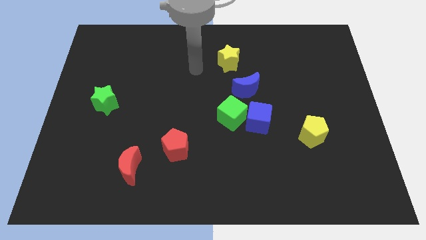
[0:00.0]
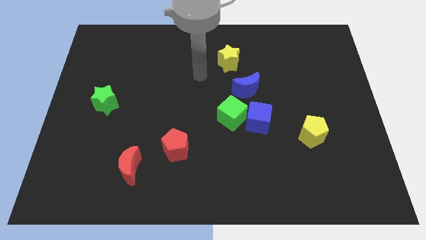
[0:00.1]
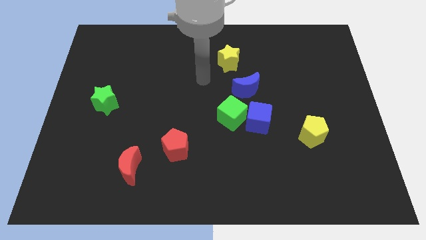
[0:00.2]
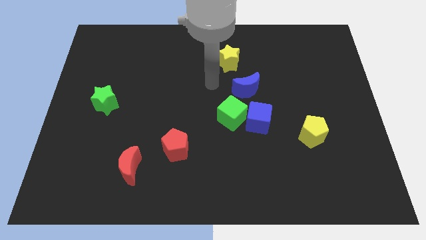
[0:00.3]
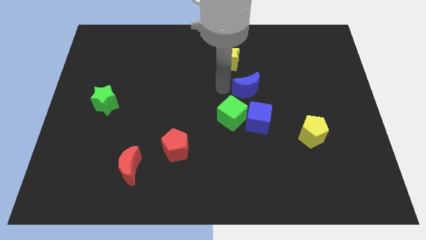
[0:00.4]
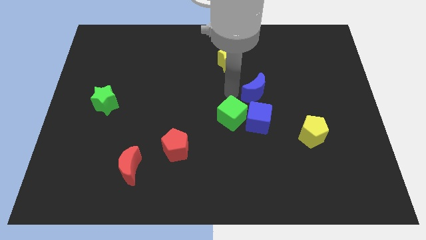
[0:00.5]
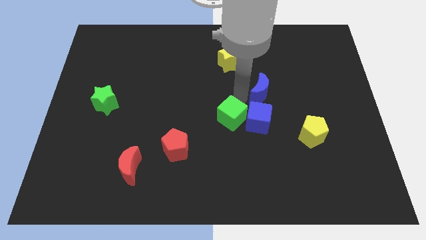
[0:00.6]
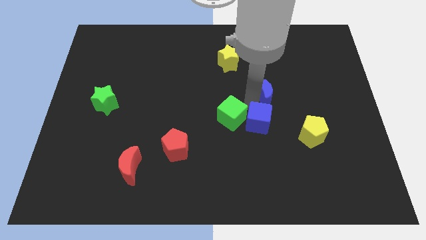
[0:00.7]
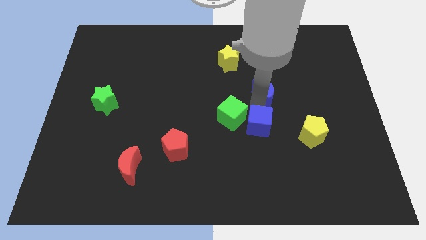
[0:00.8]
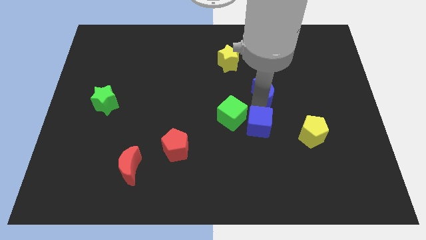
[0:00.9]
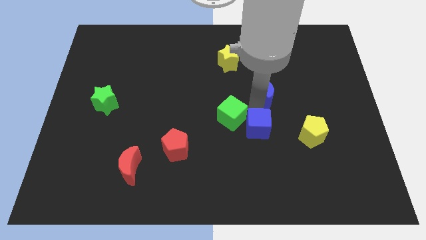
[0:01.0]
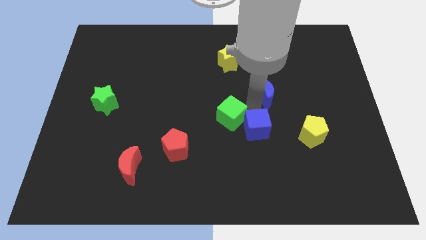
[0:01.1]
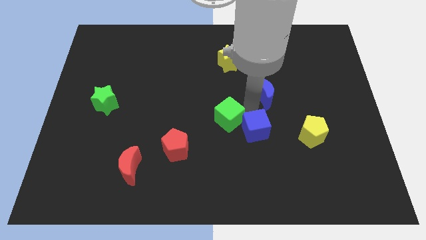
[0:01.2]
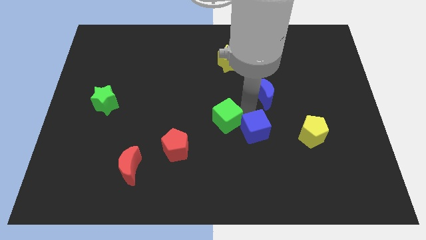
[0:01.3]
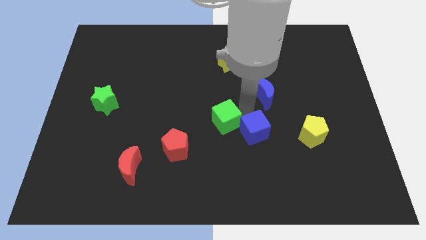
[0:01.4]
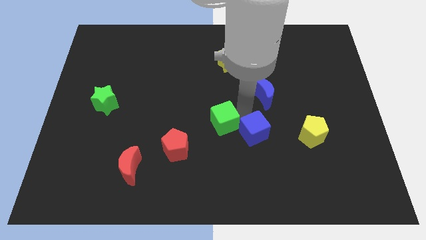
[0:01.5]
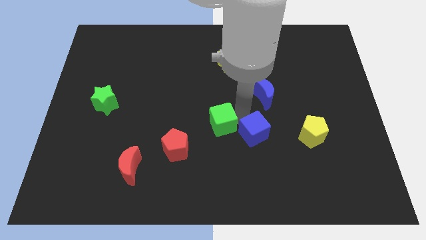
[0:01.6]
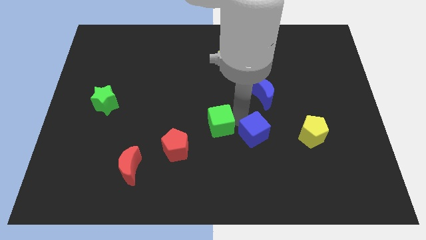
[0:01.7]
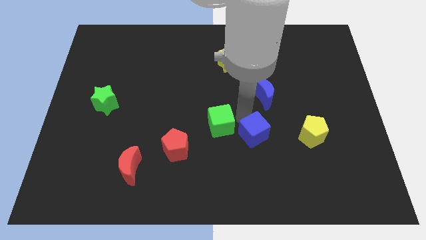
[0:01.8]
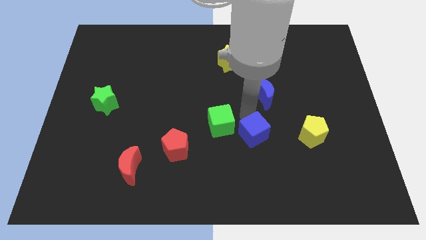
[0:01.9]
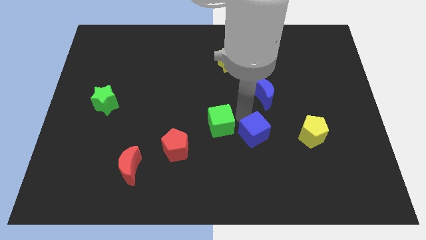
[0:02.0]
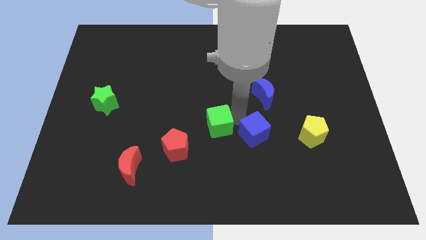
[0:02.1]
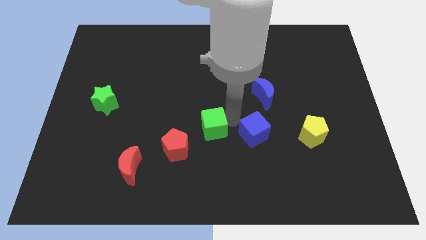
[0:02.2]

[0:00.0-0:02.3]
separate the green cube from the blue cube and blue moon

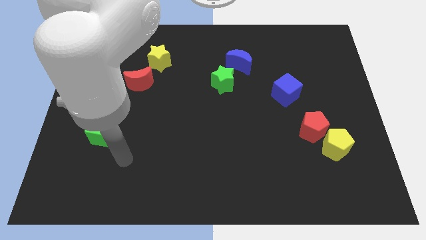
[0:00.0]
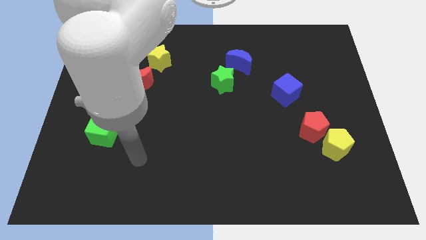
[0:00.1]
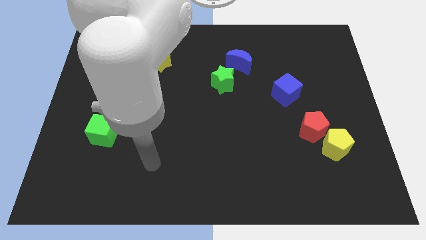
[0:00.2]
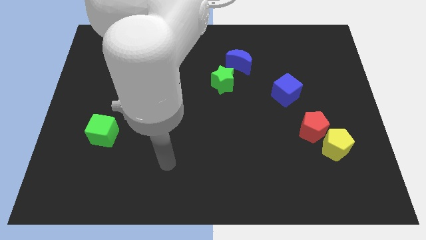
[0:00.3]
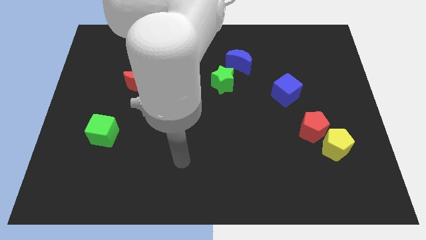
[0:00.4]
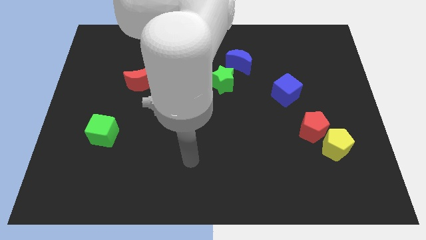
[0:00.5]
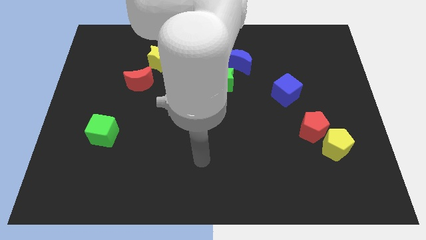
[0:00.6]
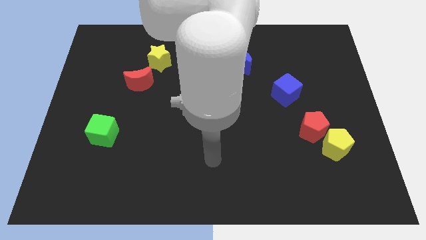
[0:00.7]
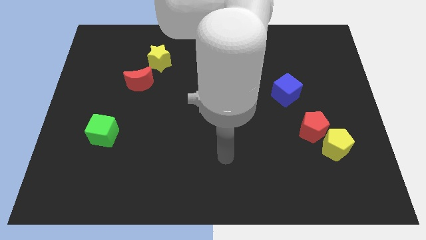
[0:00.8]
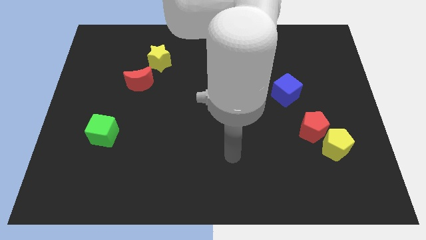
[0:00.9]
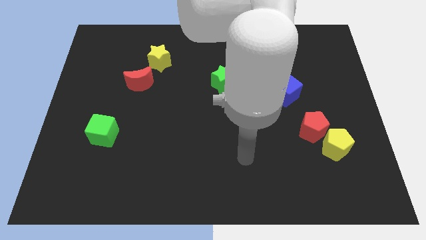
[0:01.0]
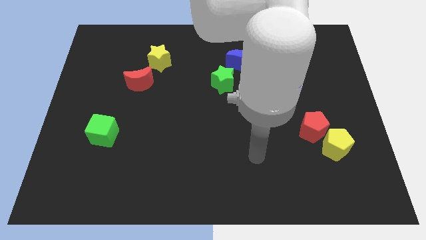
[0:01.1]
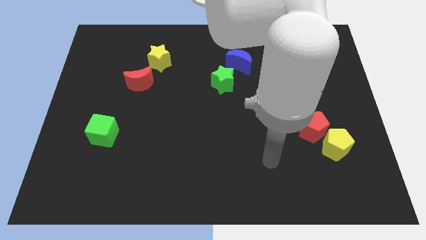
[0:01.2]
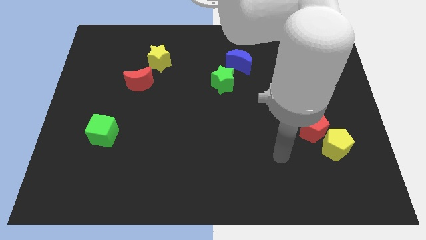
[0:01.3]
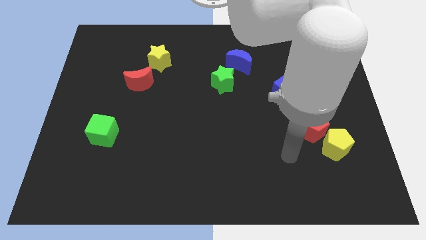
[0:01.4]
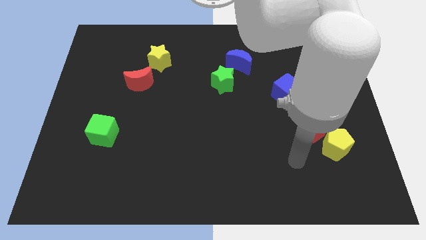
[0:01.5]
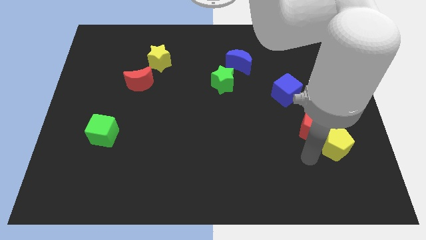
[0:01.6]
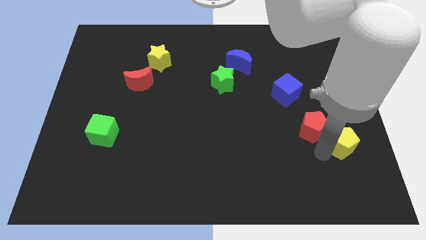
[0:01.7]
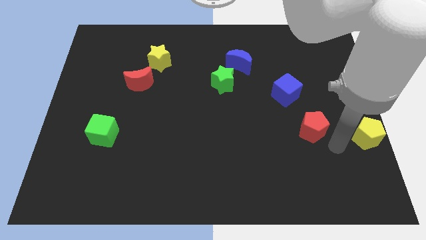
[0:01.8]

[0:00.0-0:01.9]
pull the red pentagon apart from the yellow pentagon

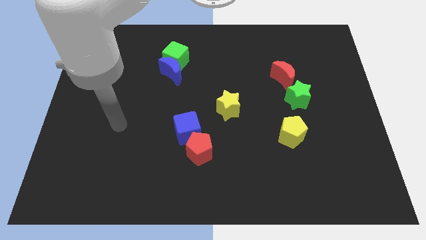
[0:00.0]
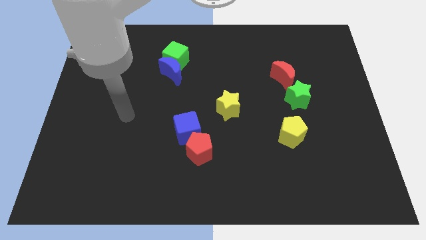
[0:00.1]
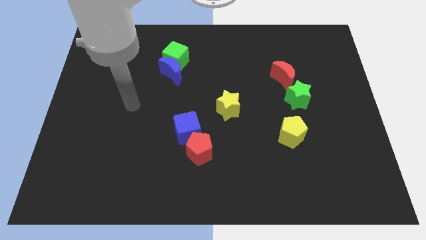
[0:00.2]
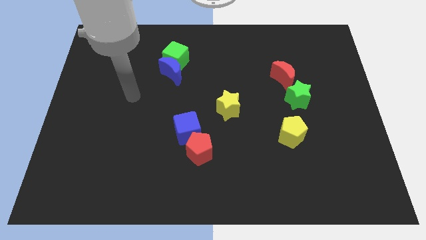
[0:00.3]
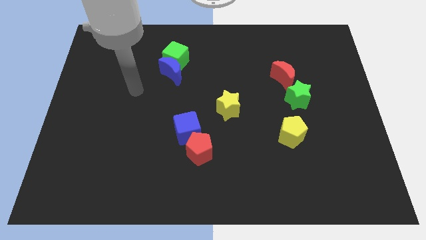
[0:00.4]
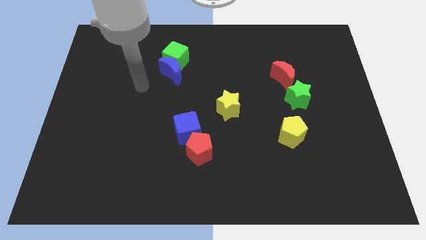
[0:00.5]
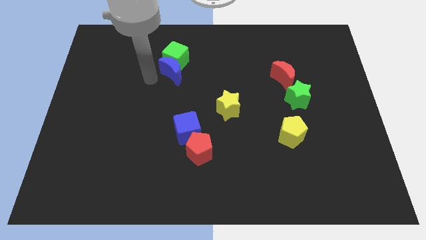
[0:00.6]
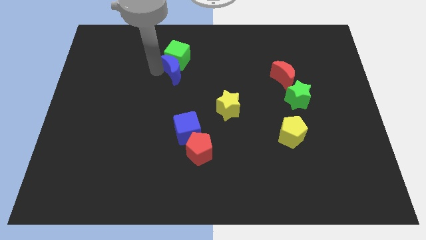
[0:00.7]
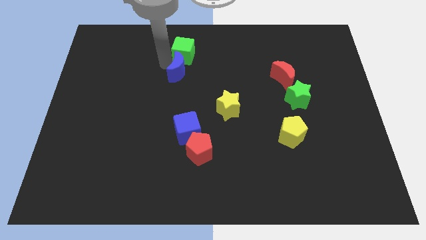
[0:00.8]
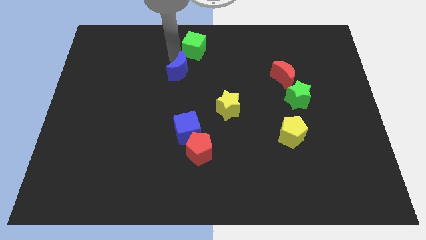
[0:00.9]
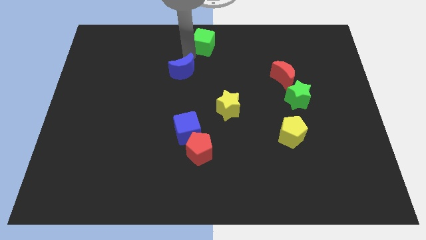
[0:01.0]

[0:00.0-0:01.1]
pull the blue moon apart from the green cube

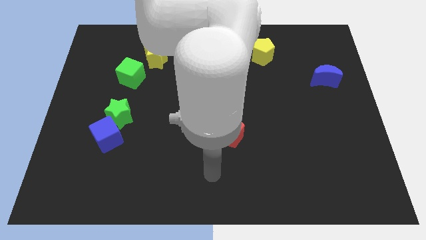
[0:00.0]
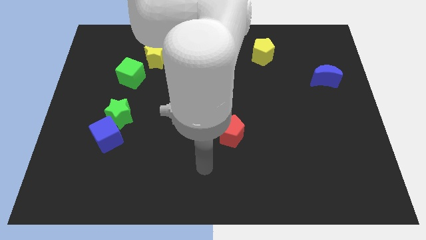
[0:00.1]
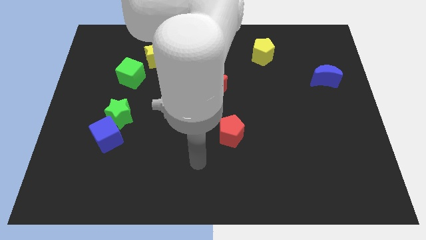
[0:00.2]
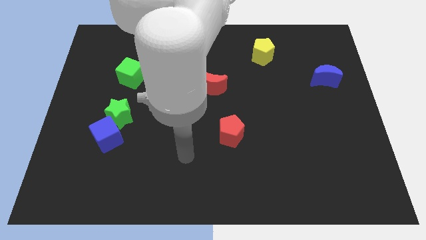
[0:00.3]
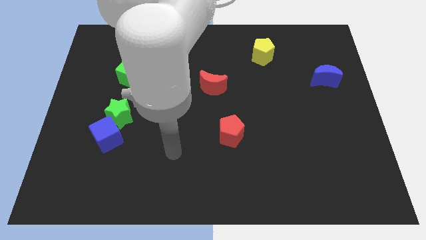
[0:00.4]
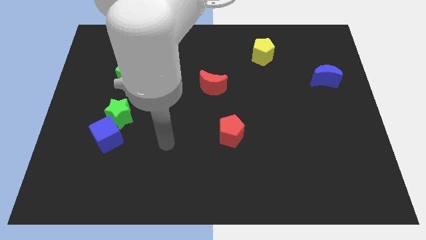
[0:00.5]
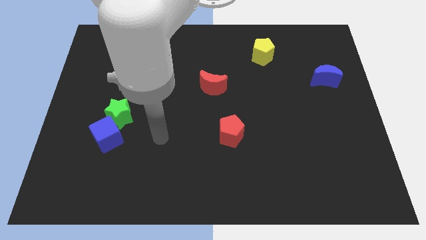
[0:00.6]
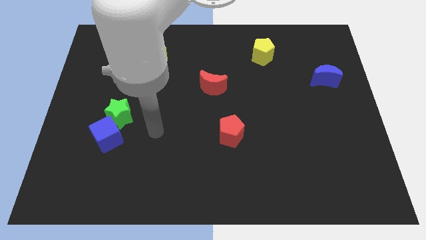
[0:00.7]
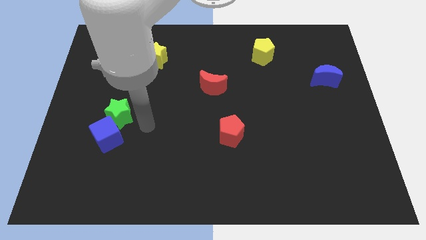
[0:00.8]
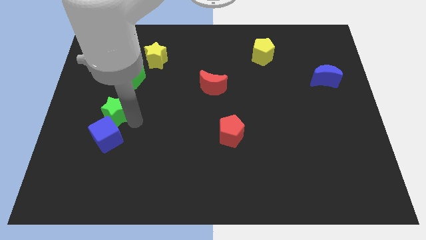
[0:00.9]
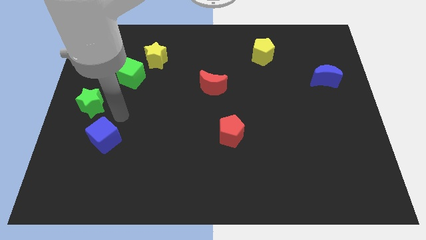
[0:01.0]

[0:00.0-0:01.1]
move the blue cube away from the green star

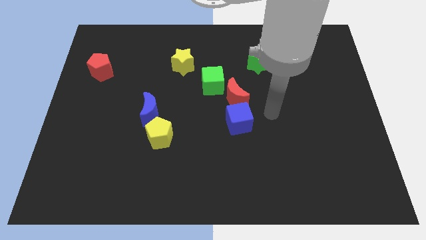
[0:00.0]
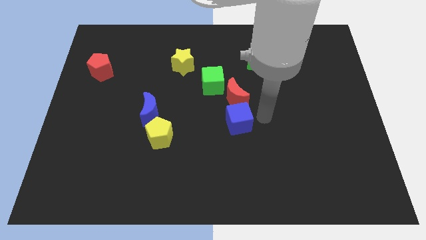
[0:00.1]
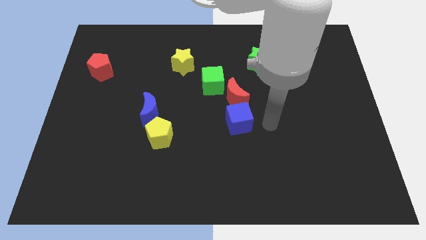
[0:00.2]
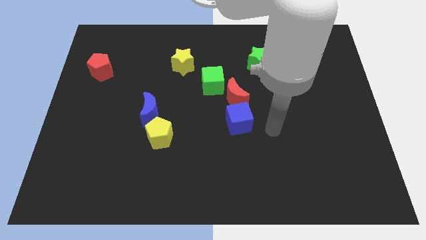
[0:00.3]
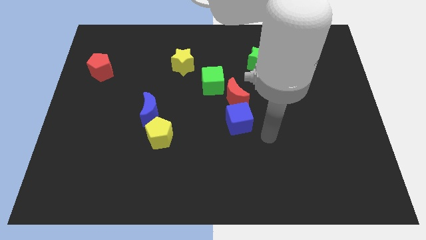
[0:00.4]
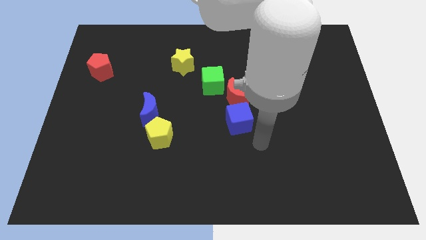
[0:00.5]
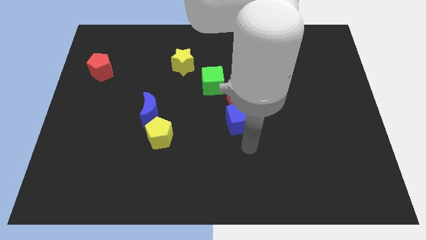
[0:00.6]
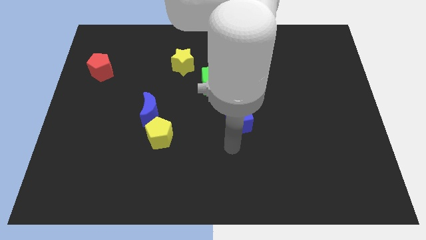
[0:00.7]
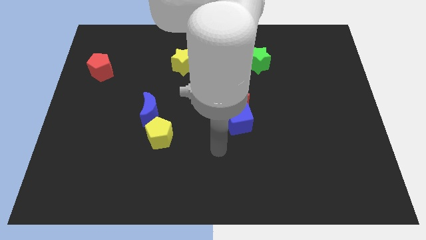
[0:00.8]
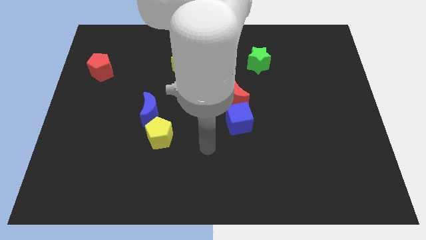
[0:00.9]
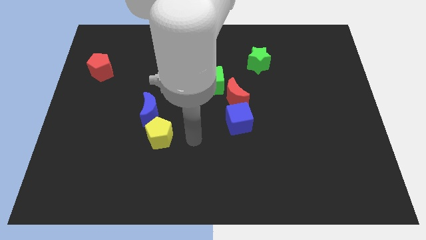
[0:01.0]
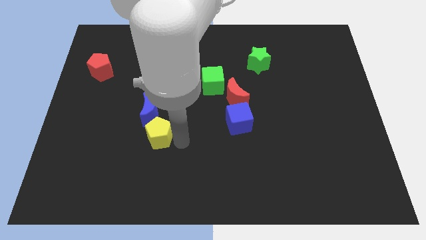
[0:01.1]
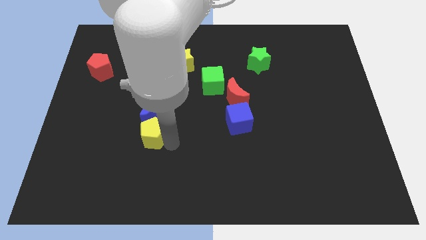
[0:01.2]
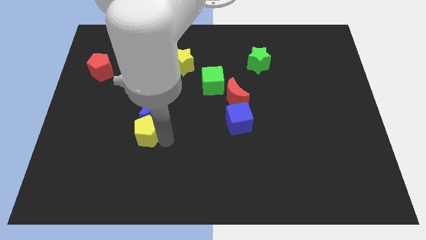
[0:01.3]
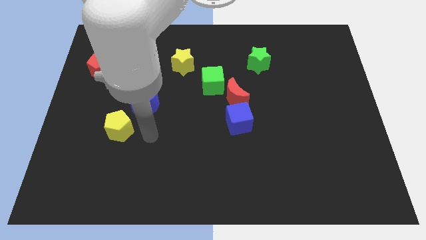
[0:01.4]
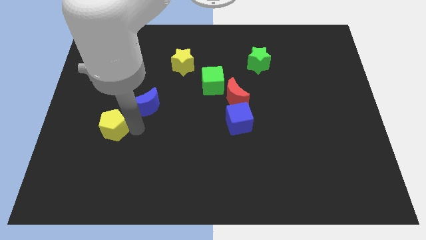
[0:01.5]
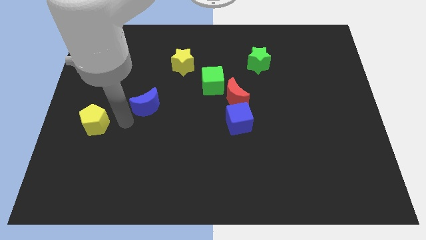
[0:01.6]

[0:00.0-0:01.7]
separate the blue moon from the yellow pentagon

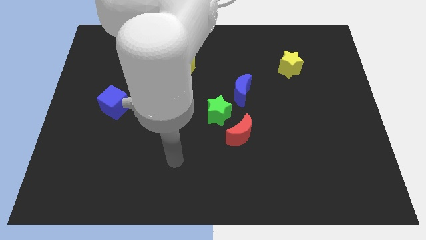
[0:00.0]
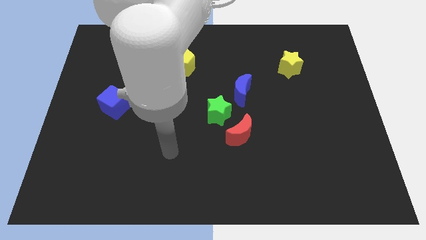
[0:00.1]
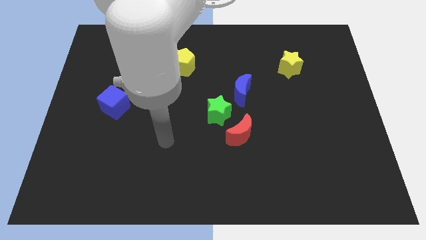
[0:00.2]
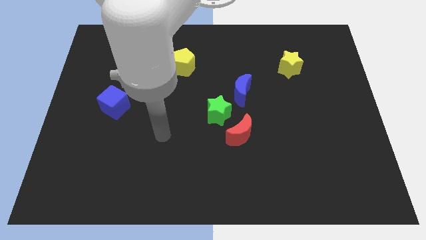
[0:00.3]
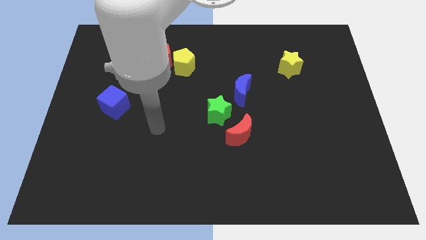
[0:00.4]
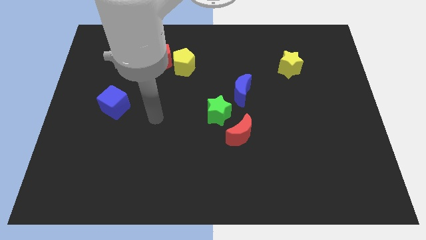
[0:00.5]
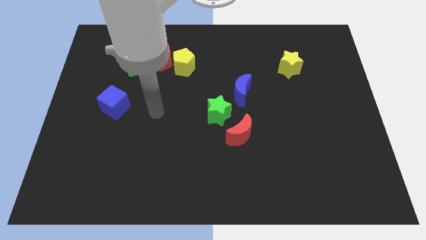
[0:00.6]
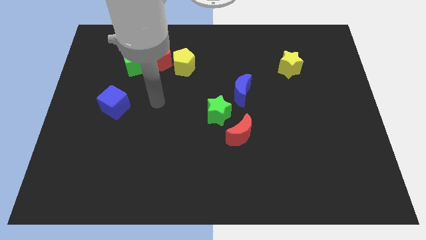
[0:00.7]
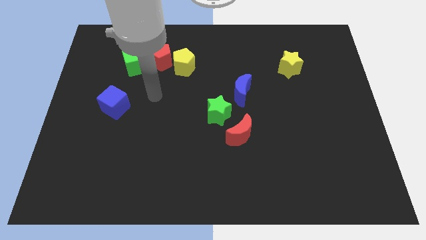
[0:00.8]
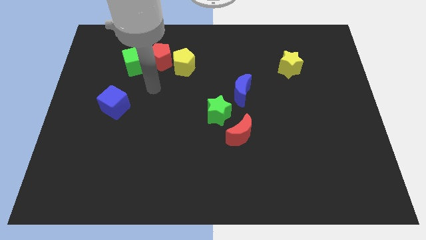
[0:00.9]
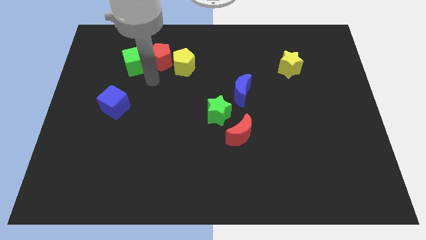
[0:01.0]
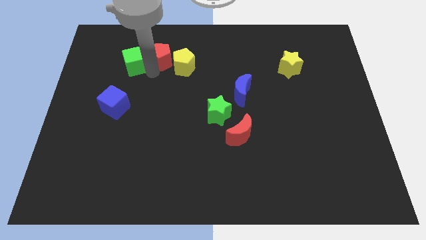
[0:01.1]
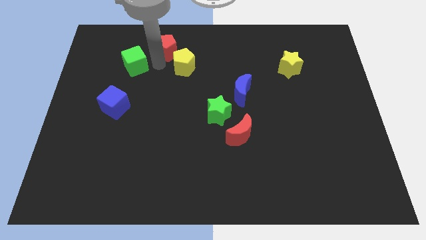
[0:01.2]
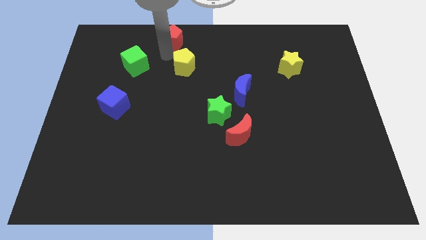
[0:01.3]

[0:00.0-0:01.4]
move the yellow pentagon away from the red pentagon
